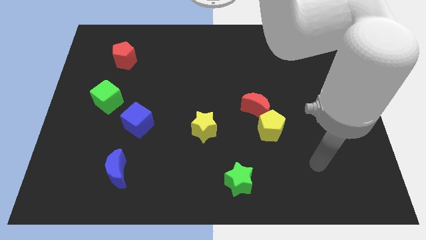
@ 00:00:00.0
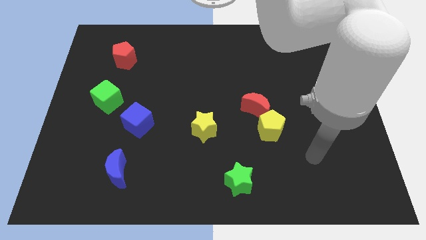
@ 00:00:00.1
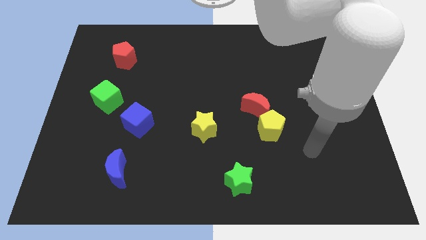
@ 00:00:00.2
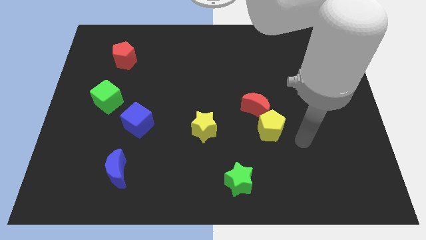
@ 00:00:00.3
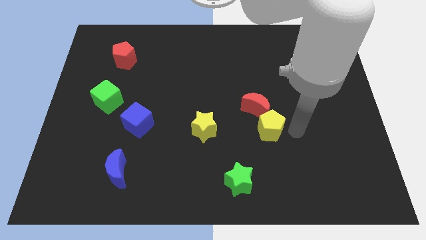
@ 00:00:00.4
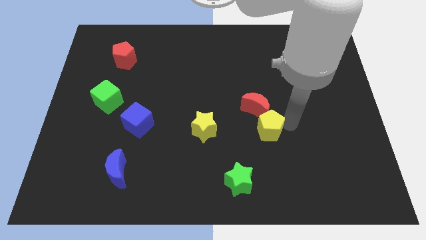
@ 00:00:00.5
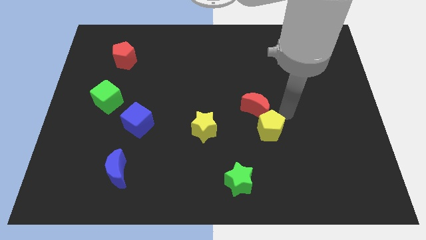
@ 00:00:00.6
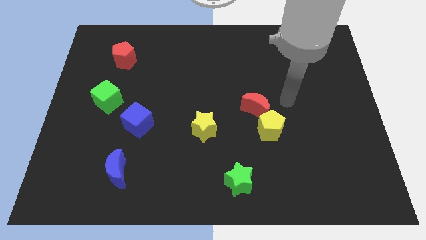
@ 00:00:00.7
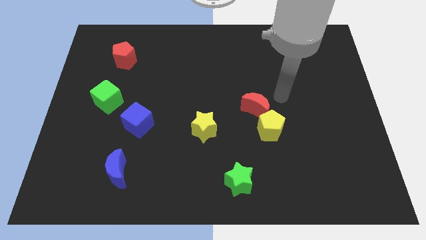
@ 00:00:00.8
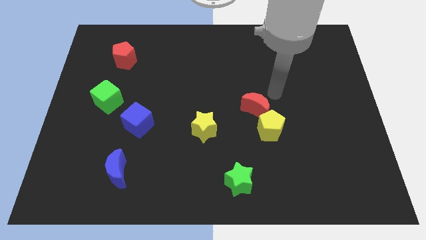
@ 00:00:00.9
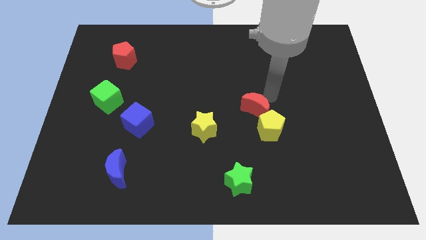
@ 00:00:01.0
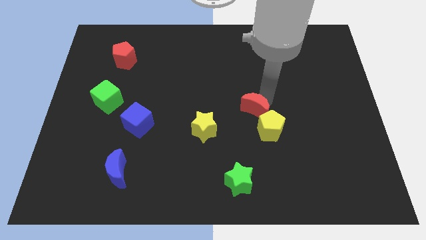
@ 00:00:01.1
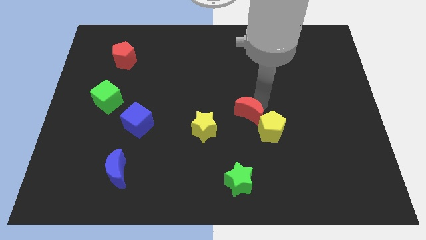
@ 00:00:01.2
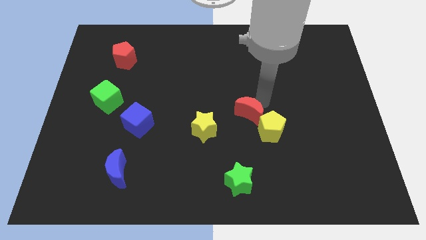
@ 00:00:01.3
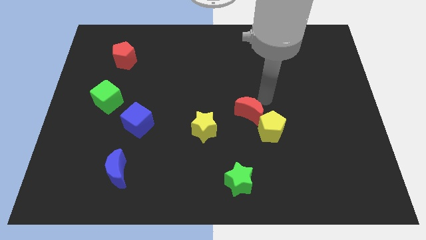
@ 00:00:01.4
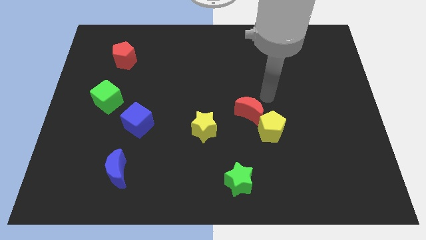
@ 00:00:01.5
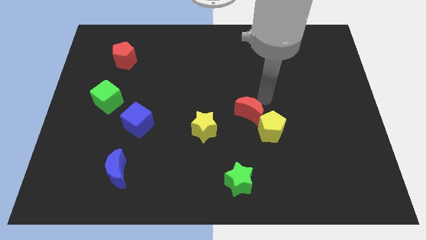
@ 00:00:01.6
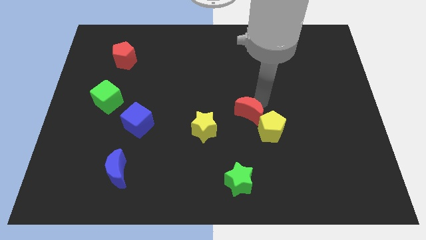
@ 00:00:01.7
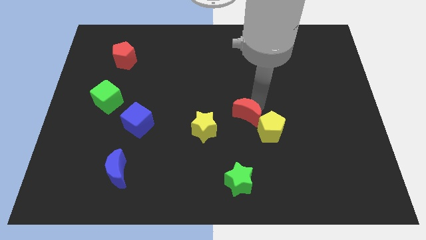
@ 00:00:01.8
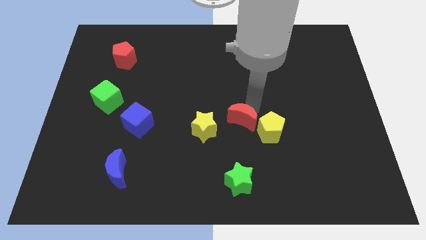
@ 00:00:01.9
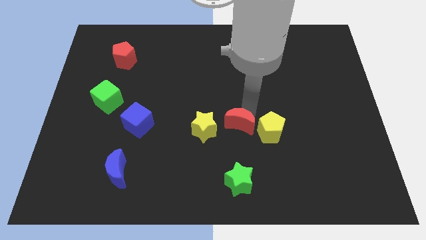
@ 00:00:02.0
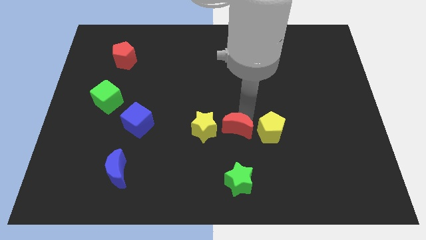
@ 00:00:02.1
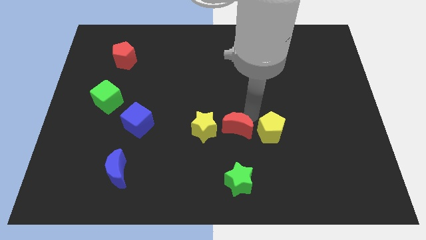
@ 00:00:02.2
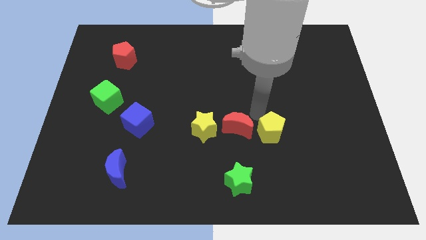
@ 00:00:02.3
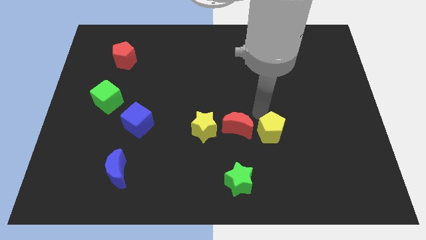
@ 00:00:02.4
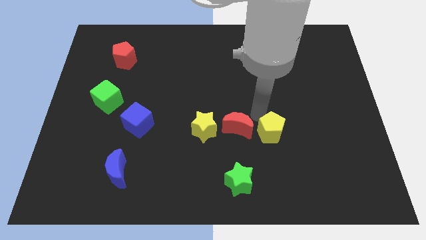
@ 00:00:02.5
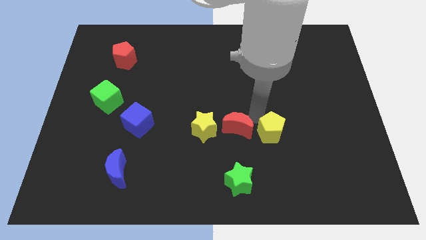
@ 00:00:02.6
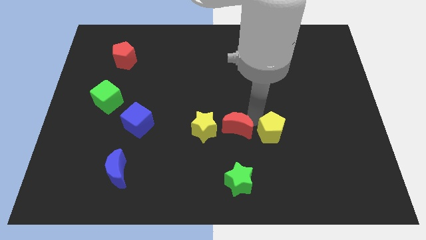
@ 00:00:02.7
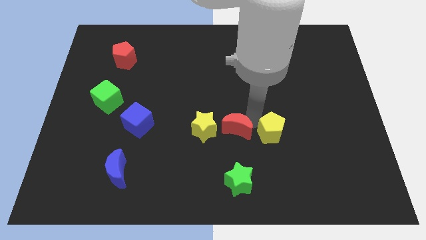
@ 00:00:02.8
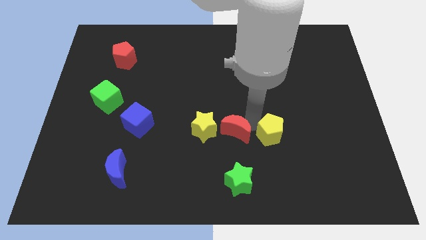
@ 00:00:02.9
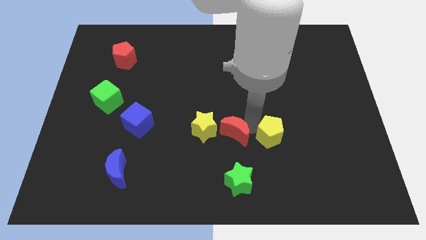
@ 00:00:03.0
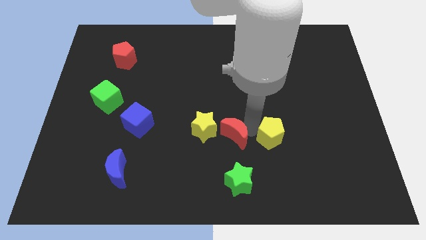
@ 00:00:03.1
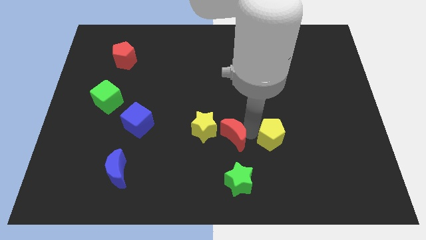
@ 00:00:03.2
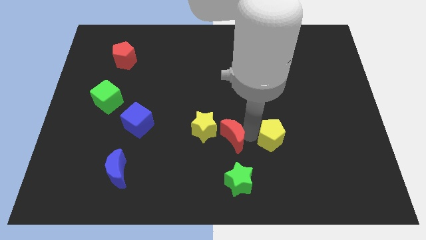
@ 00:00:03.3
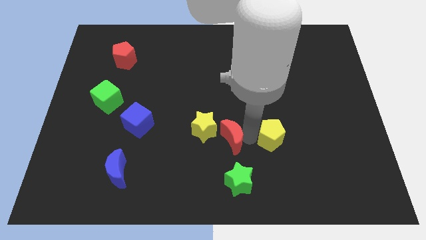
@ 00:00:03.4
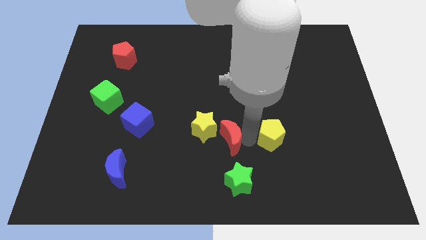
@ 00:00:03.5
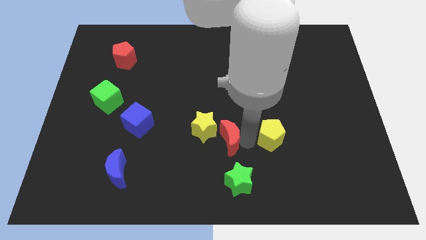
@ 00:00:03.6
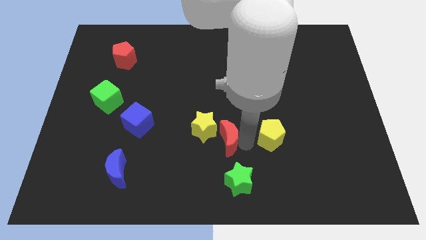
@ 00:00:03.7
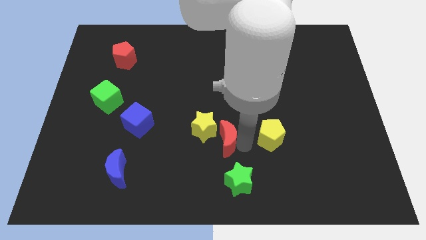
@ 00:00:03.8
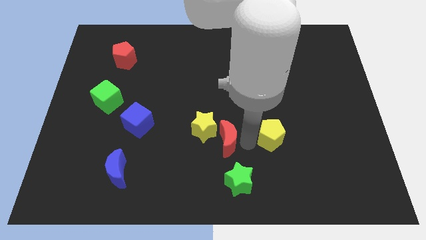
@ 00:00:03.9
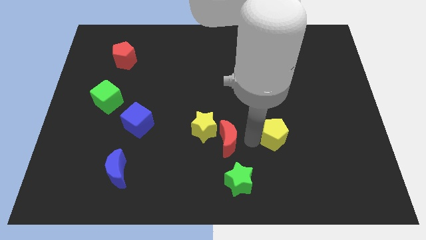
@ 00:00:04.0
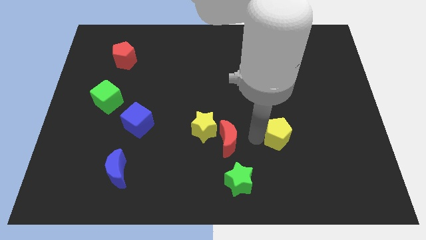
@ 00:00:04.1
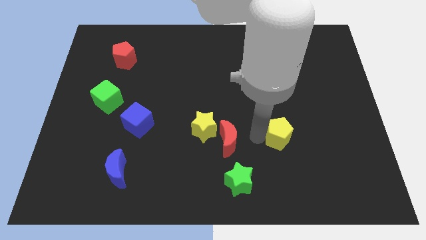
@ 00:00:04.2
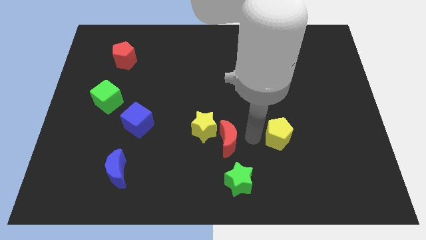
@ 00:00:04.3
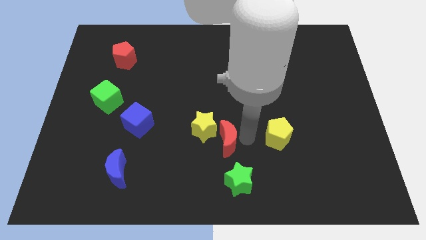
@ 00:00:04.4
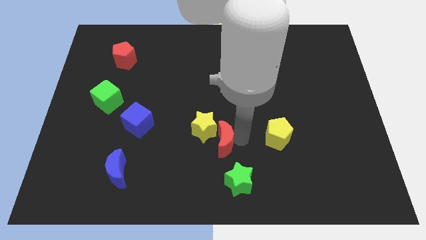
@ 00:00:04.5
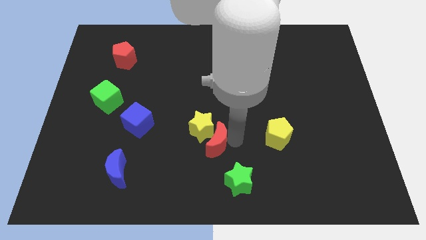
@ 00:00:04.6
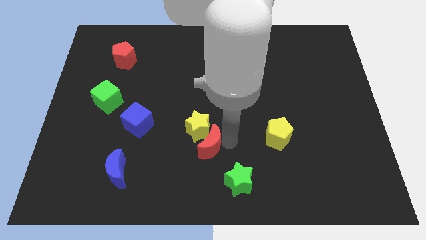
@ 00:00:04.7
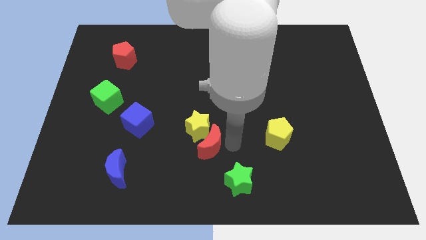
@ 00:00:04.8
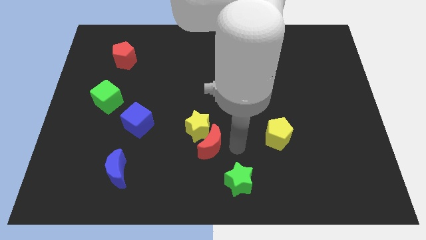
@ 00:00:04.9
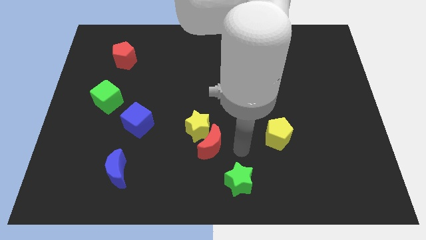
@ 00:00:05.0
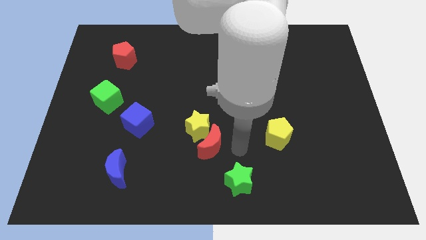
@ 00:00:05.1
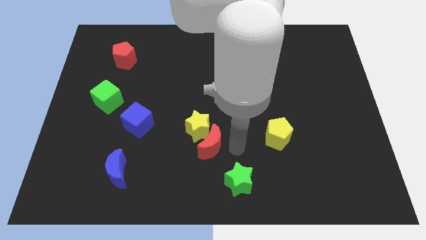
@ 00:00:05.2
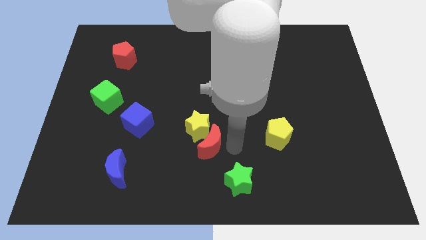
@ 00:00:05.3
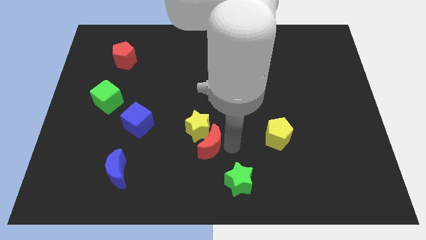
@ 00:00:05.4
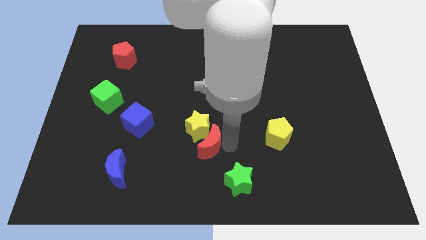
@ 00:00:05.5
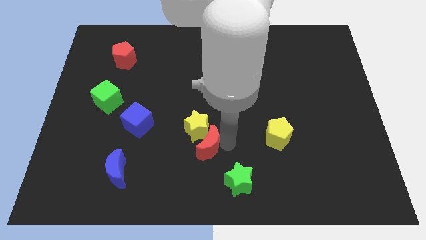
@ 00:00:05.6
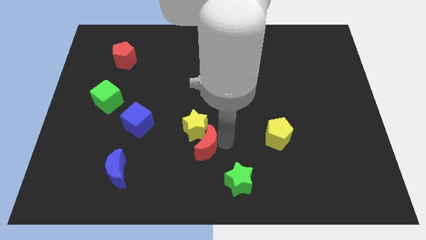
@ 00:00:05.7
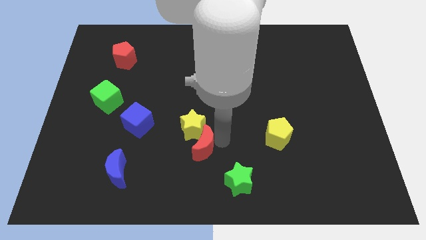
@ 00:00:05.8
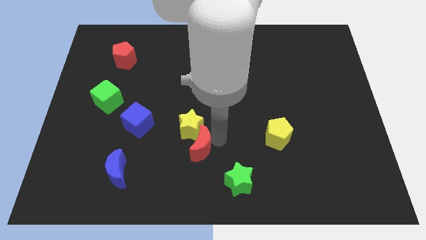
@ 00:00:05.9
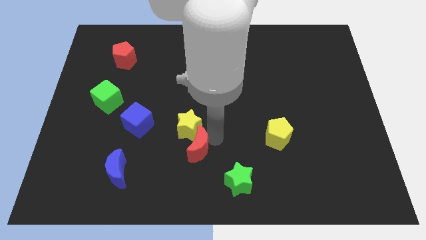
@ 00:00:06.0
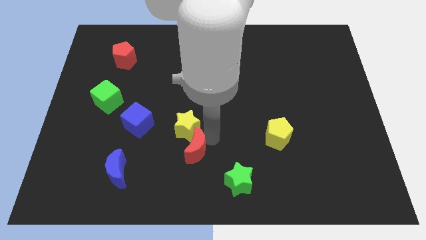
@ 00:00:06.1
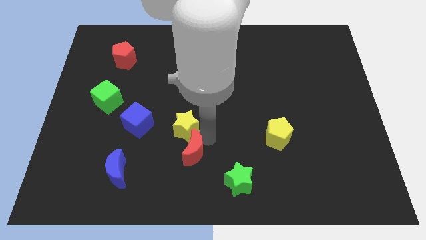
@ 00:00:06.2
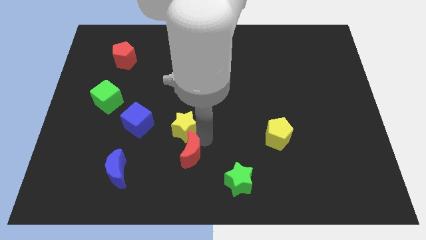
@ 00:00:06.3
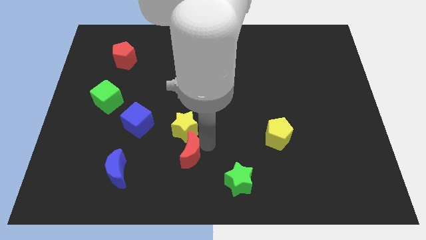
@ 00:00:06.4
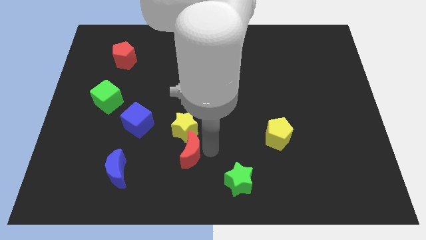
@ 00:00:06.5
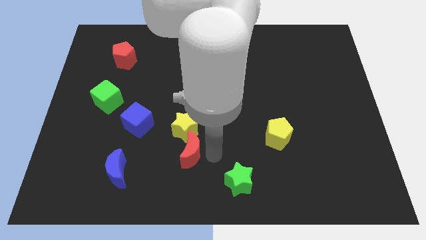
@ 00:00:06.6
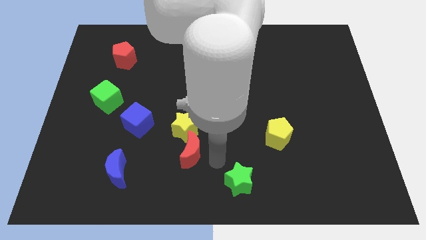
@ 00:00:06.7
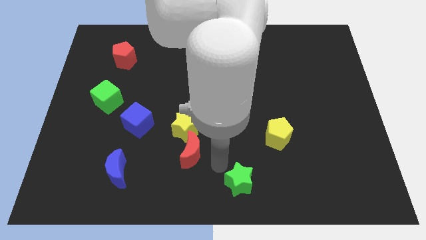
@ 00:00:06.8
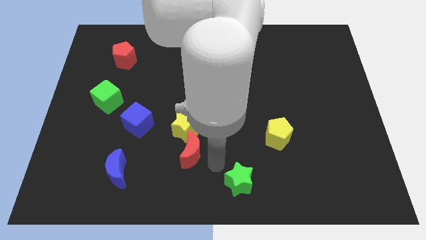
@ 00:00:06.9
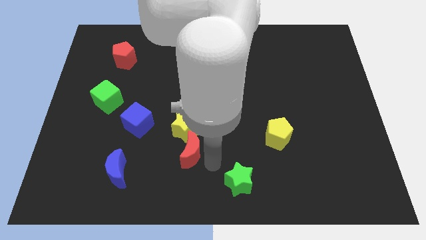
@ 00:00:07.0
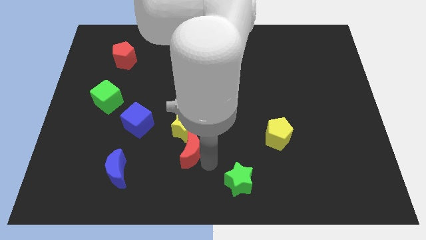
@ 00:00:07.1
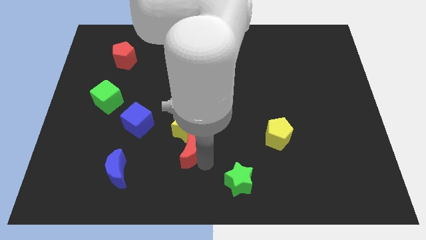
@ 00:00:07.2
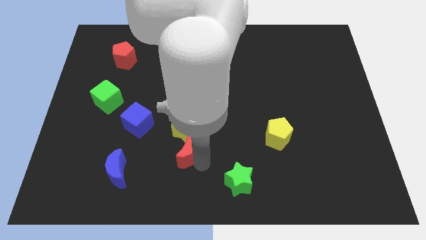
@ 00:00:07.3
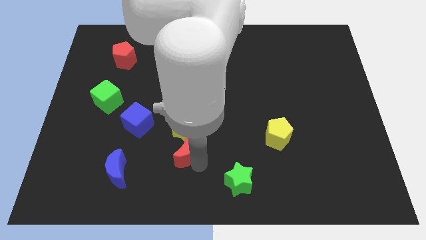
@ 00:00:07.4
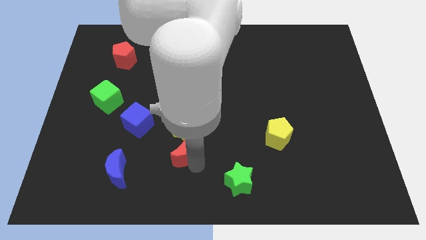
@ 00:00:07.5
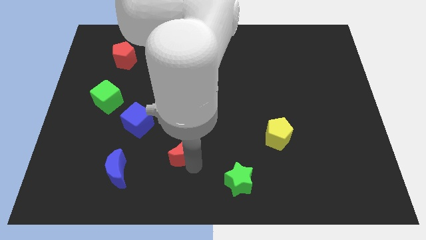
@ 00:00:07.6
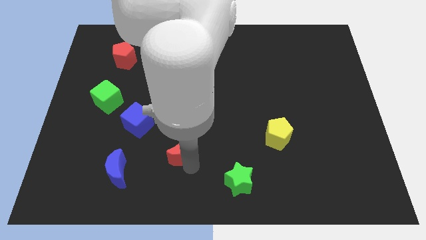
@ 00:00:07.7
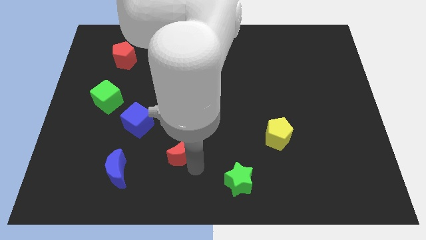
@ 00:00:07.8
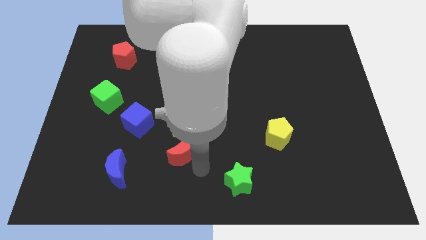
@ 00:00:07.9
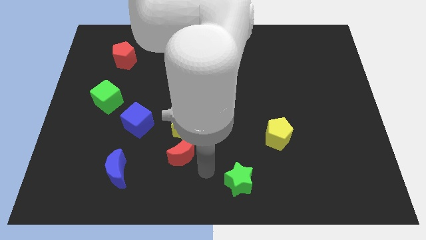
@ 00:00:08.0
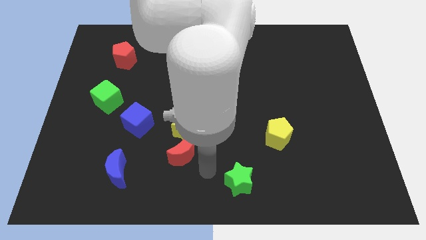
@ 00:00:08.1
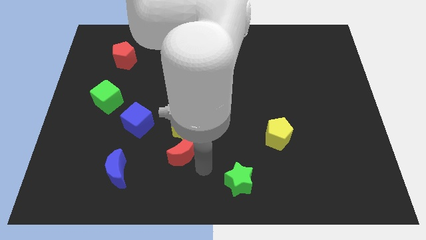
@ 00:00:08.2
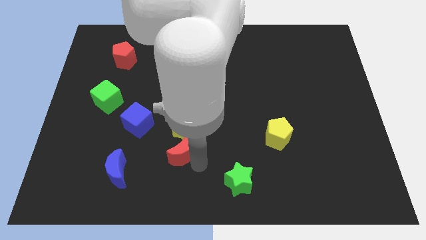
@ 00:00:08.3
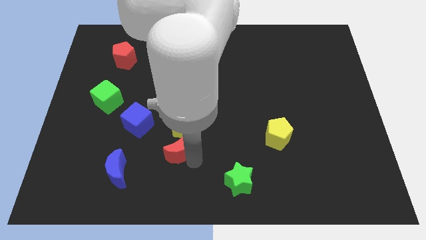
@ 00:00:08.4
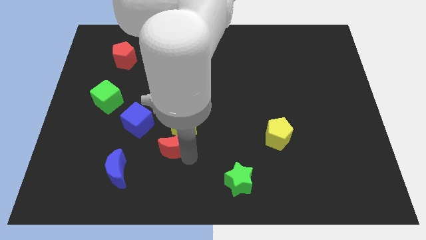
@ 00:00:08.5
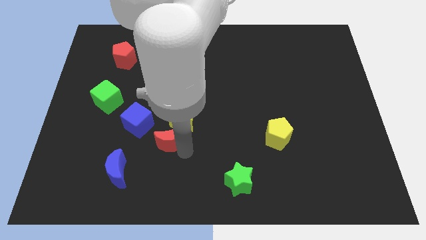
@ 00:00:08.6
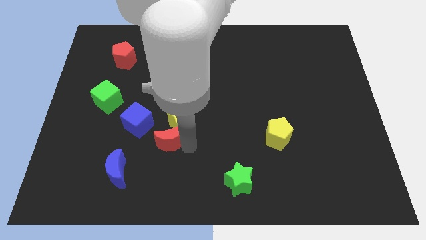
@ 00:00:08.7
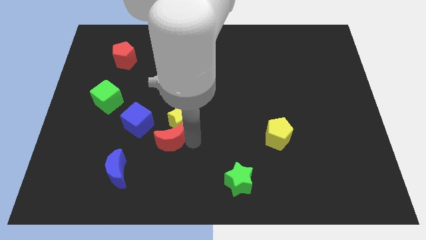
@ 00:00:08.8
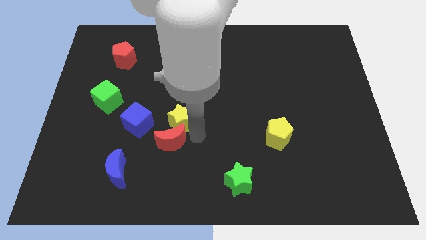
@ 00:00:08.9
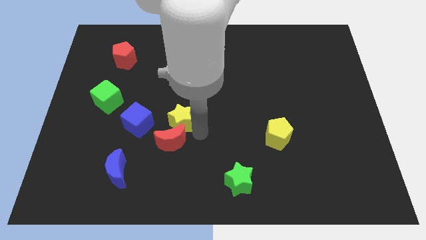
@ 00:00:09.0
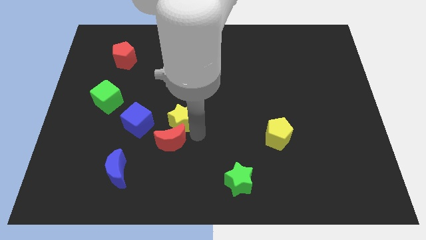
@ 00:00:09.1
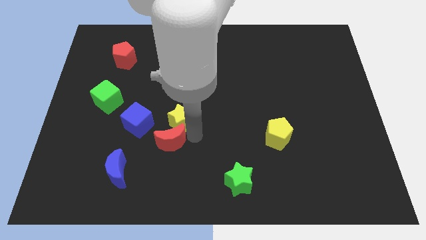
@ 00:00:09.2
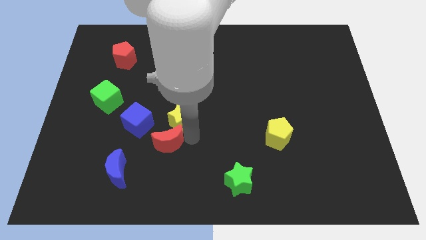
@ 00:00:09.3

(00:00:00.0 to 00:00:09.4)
put the red moon to the top right side of the blue moon
